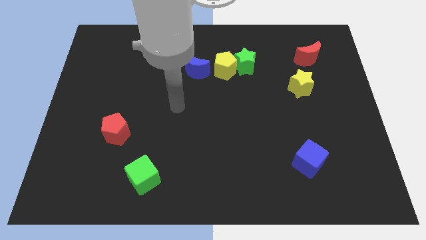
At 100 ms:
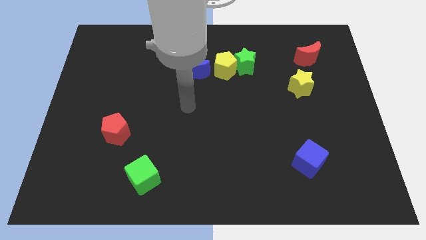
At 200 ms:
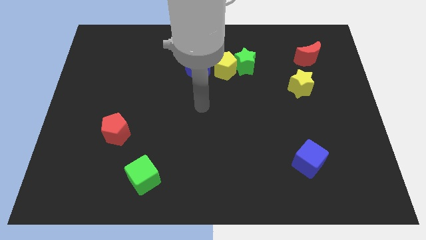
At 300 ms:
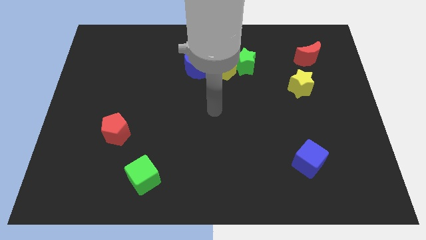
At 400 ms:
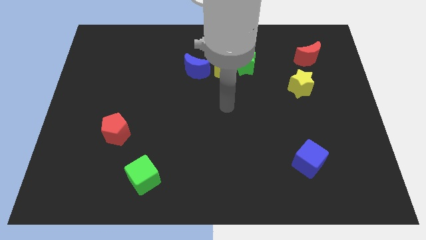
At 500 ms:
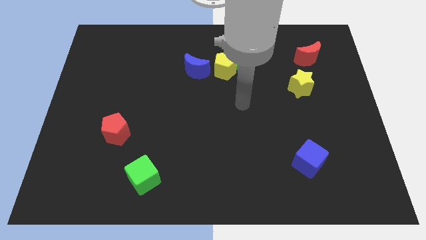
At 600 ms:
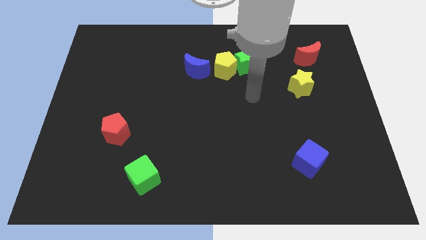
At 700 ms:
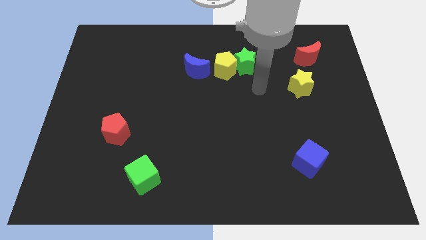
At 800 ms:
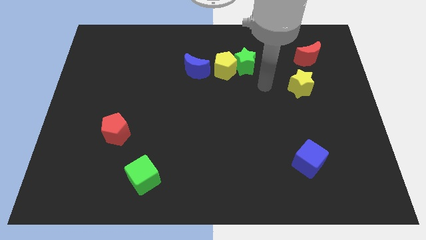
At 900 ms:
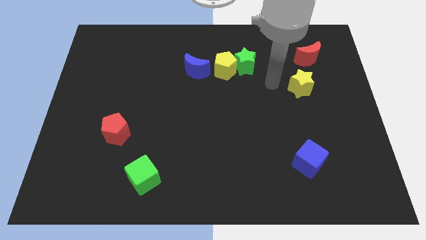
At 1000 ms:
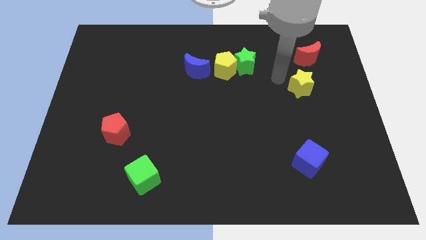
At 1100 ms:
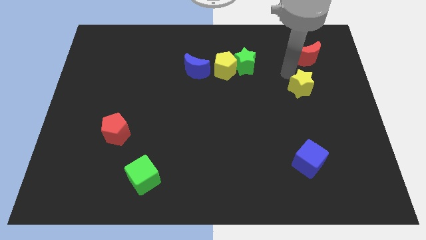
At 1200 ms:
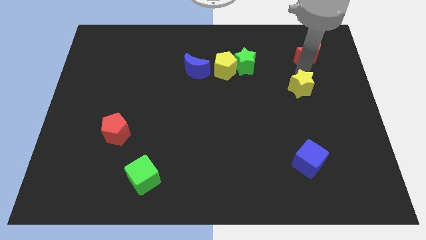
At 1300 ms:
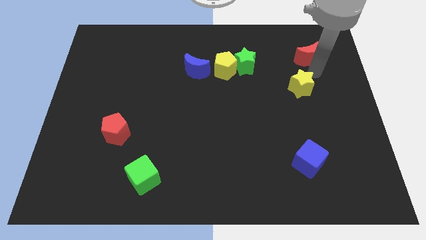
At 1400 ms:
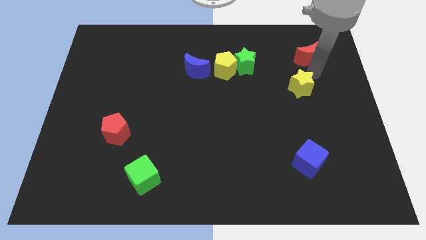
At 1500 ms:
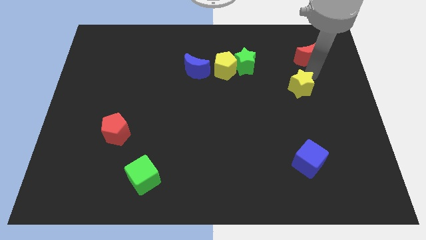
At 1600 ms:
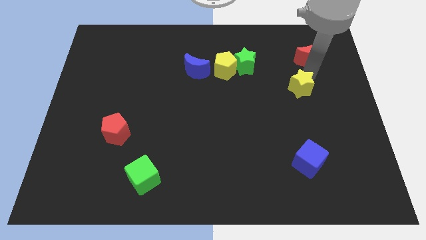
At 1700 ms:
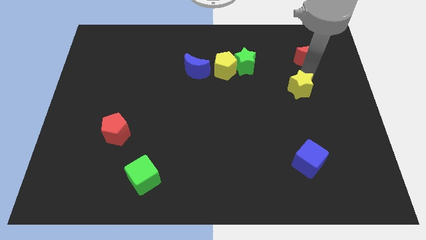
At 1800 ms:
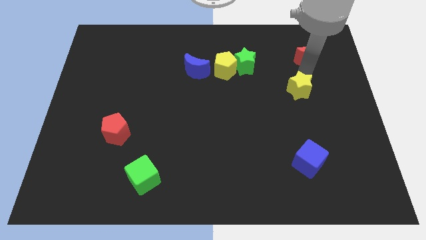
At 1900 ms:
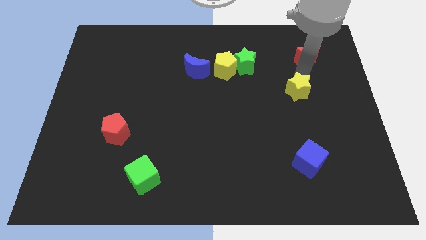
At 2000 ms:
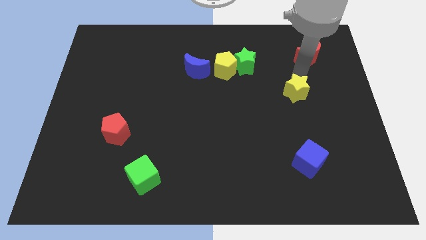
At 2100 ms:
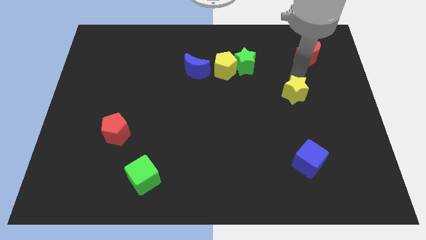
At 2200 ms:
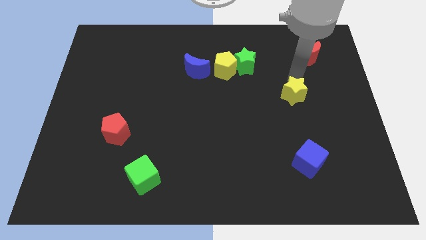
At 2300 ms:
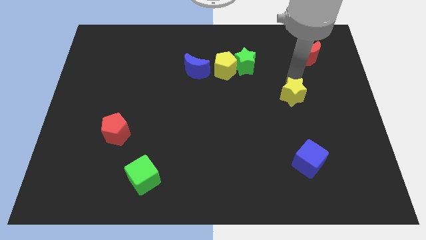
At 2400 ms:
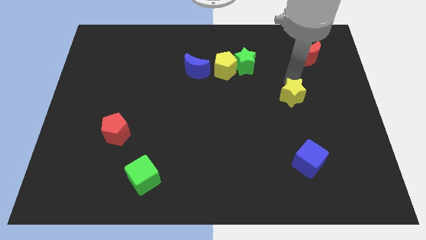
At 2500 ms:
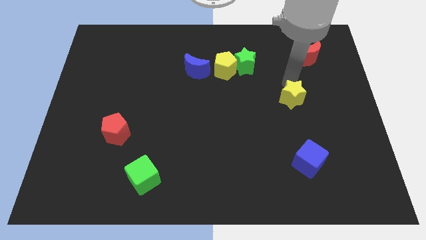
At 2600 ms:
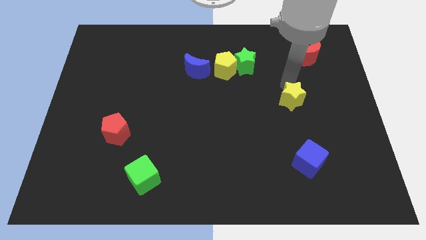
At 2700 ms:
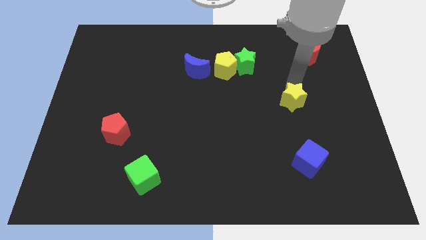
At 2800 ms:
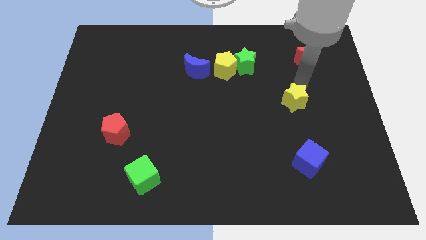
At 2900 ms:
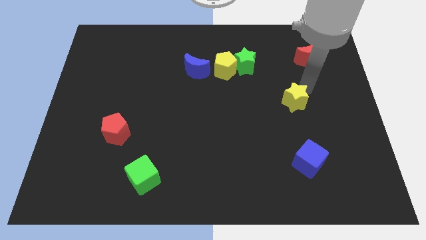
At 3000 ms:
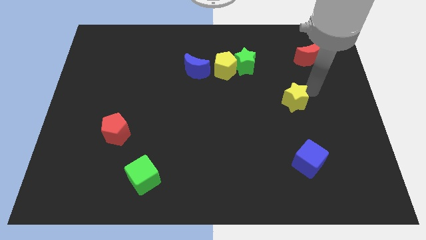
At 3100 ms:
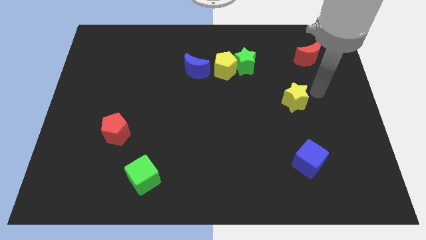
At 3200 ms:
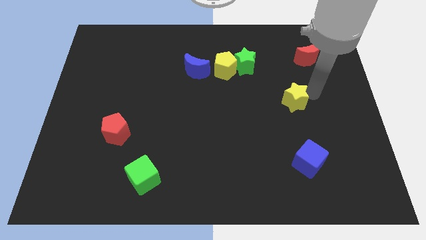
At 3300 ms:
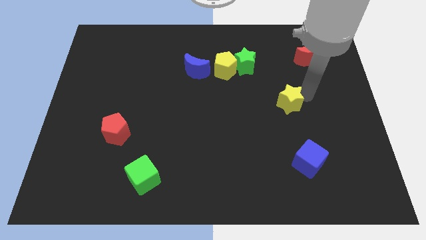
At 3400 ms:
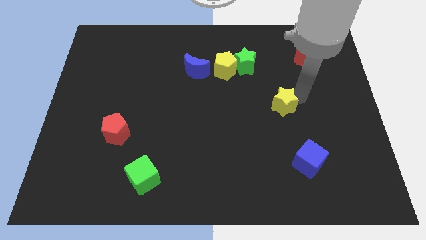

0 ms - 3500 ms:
push the yellow star downwards and left slightly

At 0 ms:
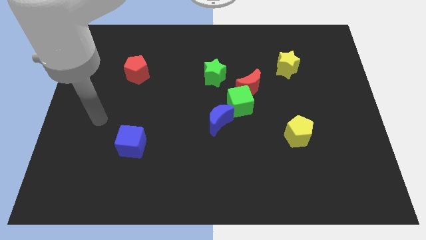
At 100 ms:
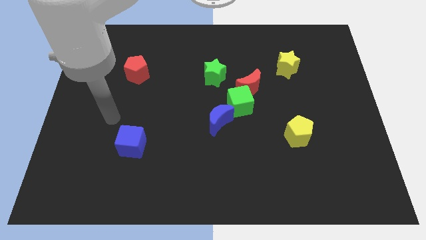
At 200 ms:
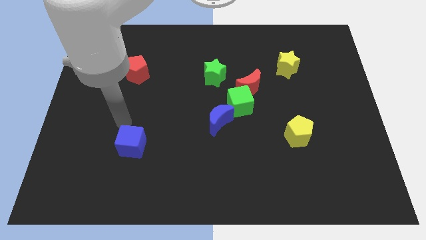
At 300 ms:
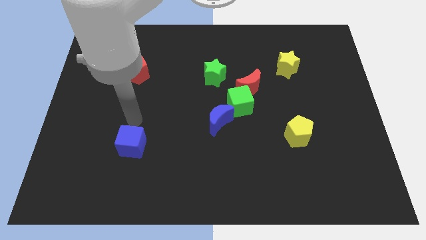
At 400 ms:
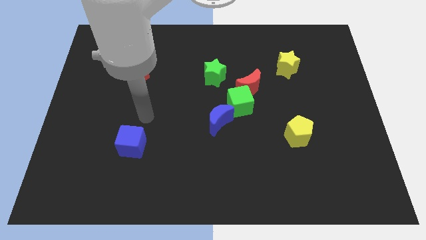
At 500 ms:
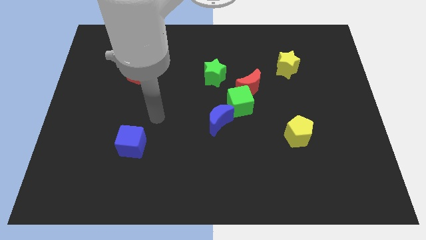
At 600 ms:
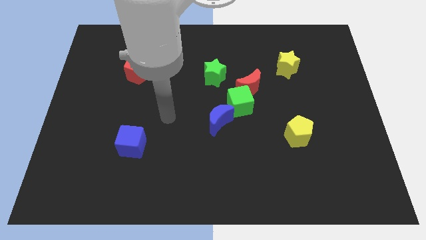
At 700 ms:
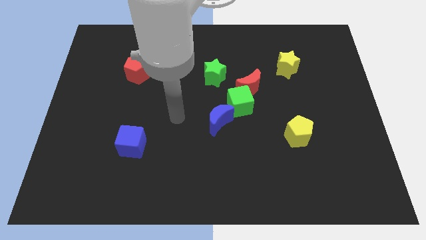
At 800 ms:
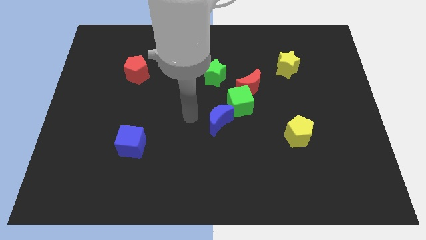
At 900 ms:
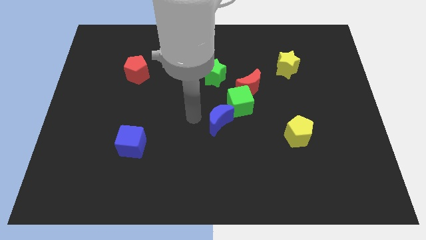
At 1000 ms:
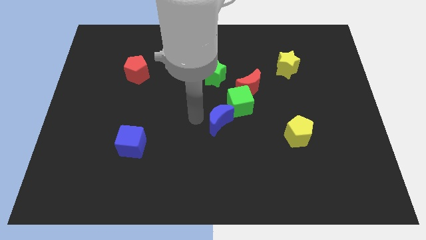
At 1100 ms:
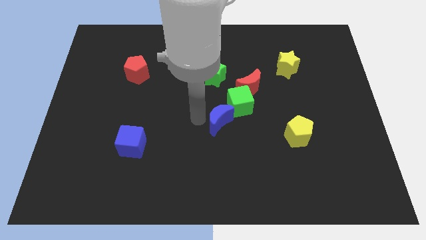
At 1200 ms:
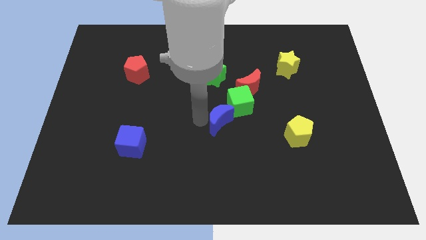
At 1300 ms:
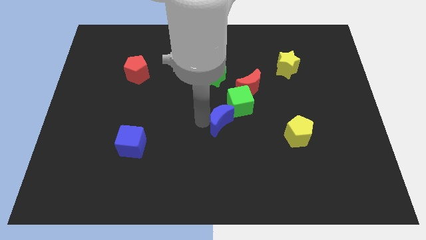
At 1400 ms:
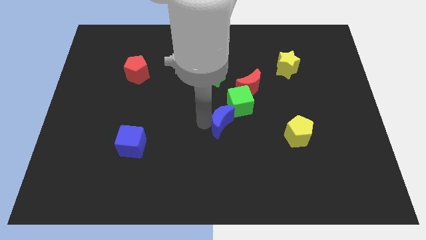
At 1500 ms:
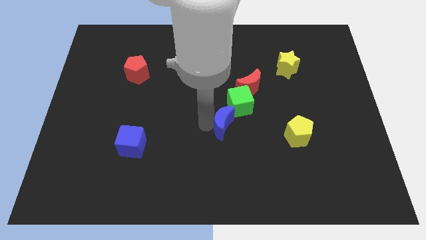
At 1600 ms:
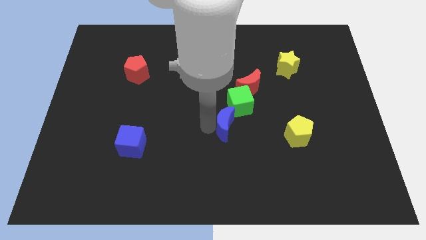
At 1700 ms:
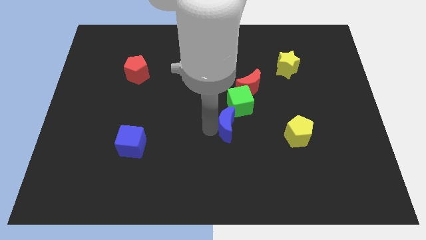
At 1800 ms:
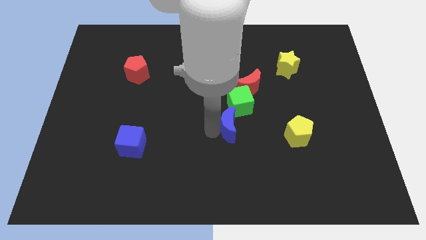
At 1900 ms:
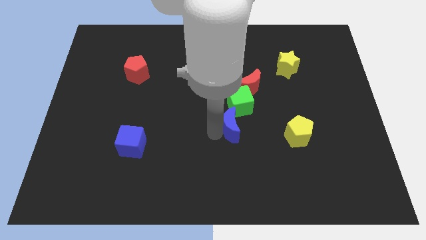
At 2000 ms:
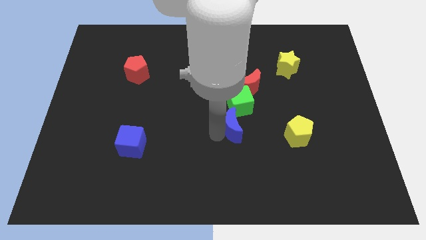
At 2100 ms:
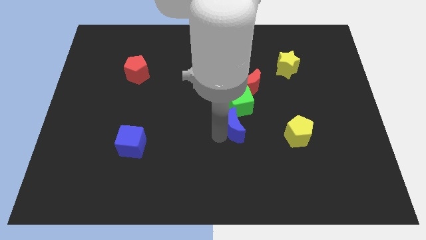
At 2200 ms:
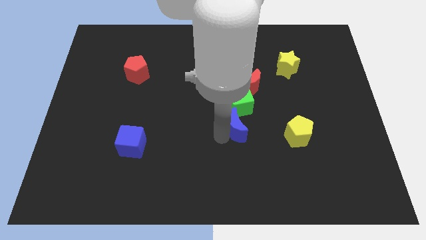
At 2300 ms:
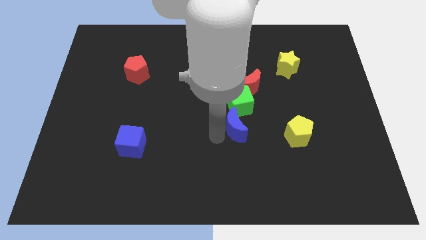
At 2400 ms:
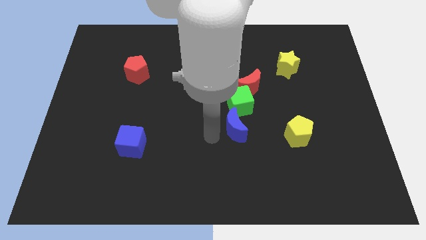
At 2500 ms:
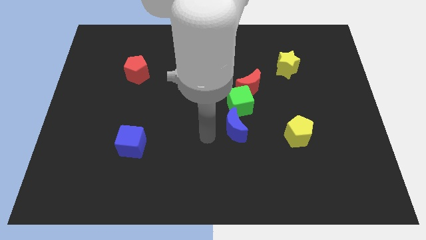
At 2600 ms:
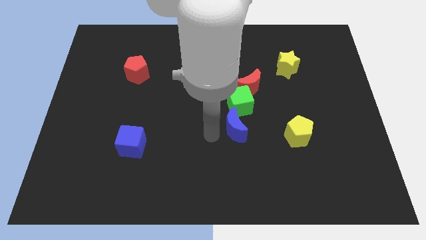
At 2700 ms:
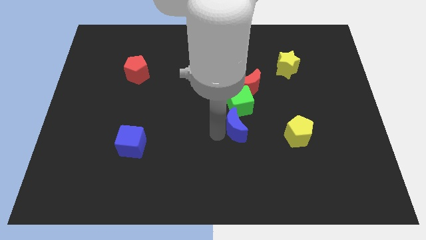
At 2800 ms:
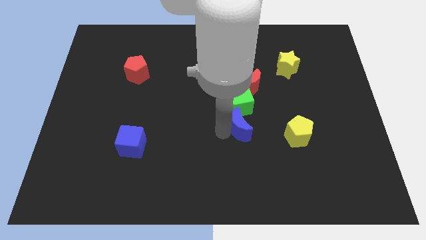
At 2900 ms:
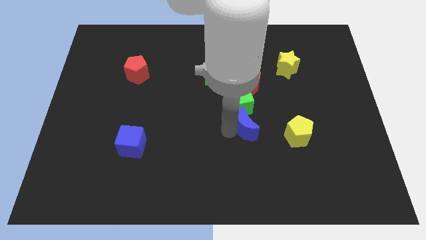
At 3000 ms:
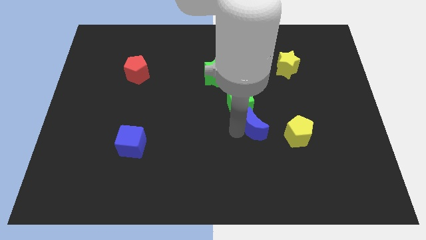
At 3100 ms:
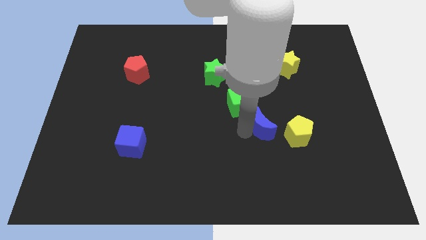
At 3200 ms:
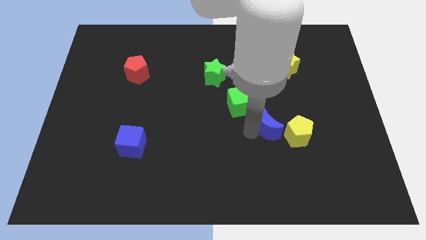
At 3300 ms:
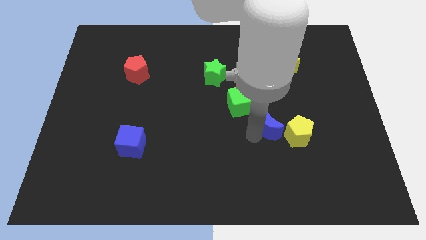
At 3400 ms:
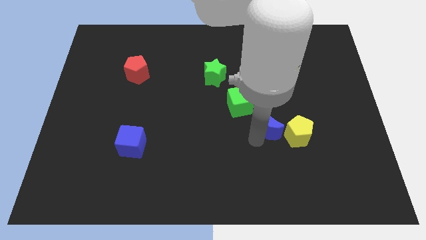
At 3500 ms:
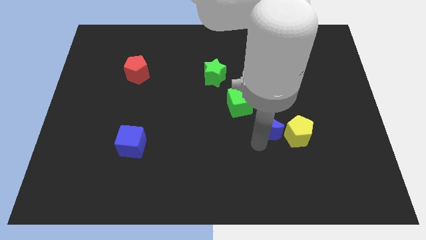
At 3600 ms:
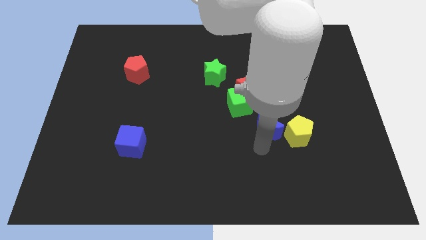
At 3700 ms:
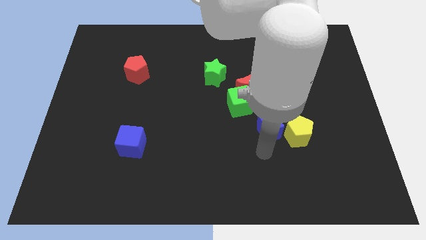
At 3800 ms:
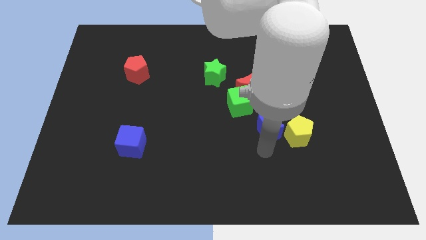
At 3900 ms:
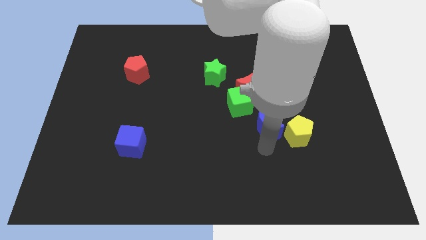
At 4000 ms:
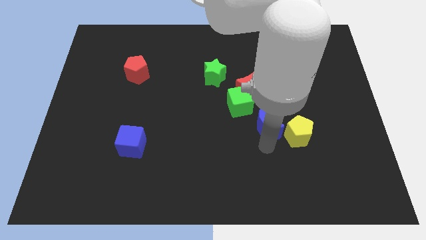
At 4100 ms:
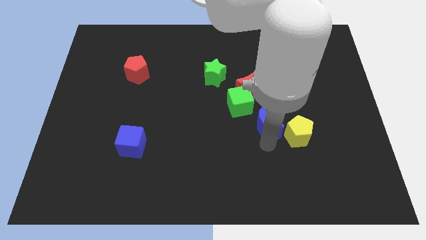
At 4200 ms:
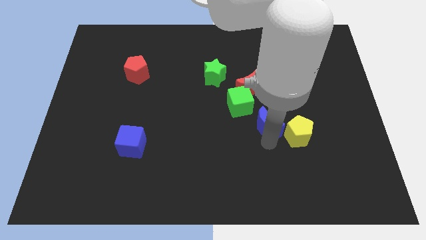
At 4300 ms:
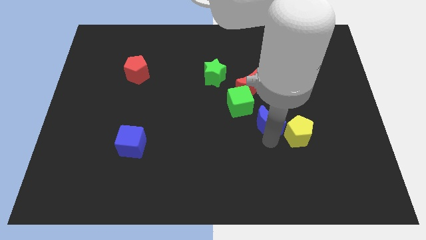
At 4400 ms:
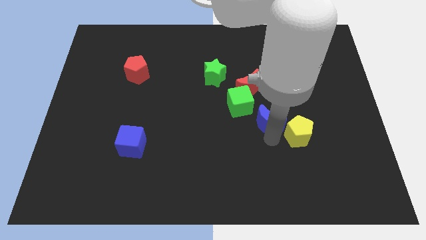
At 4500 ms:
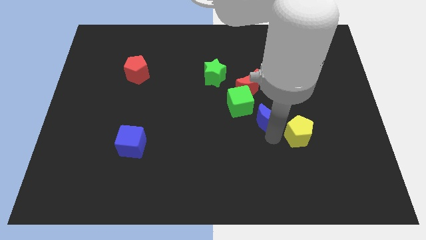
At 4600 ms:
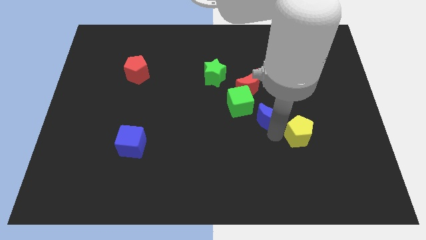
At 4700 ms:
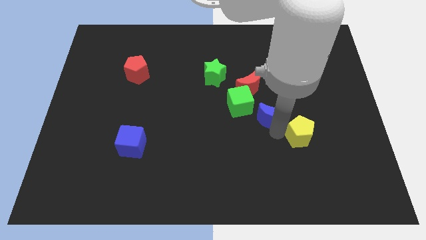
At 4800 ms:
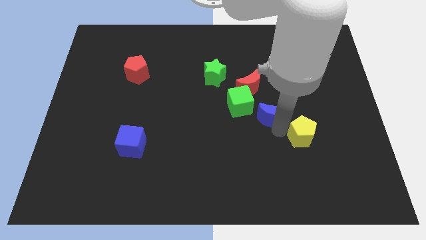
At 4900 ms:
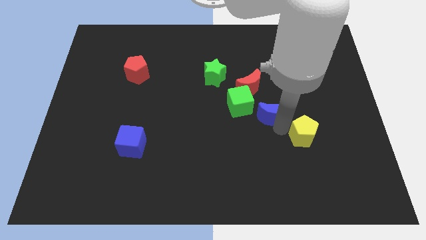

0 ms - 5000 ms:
move the blue moon diagonally upwards and right a little bit
